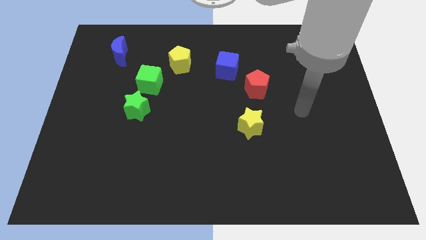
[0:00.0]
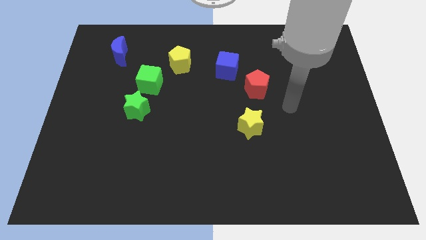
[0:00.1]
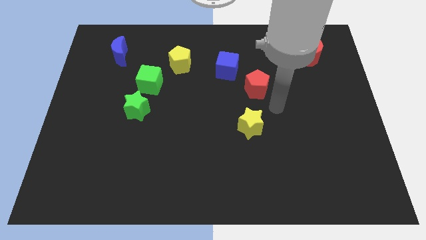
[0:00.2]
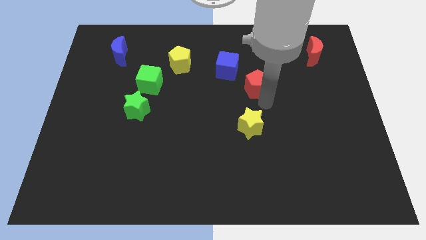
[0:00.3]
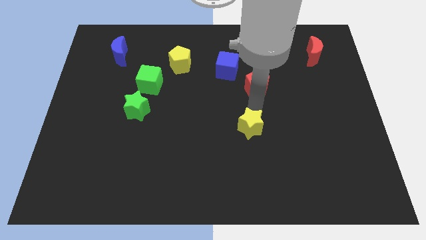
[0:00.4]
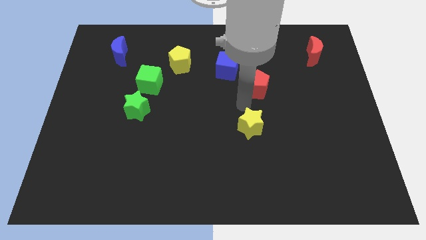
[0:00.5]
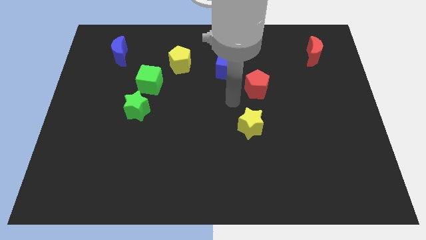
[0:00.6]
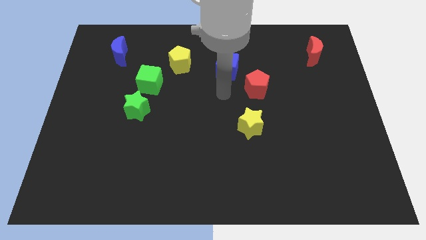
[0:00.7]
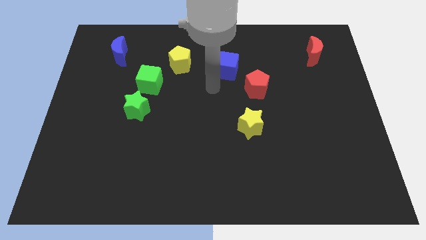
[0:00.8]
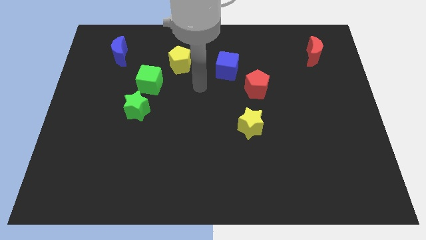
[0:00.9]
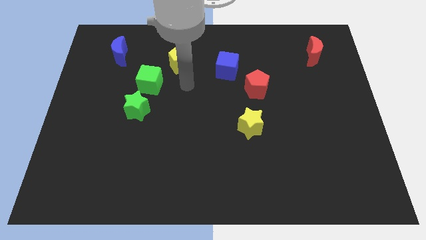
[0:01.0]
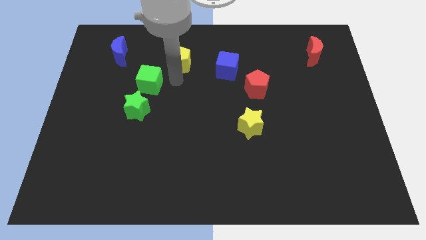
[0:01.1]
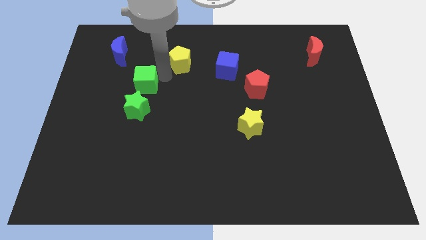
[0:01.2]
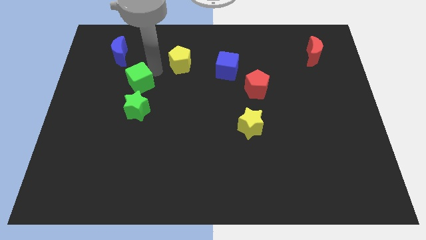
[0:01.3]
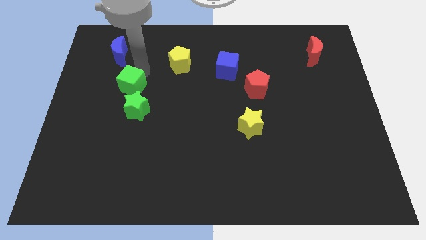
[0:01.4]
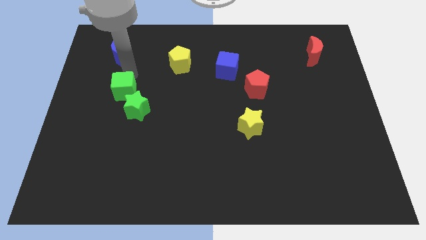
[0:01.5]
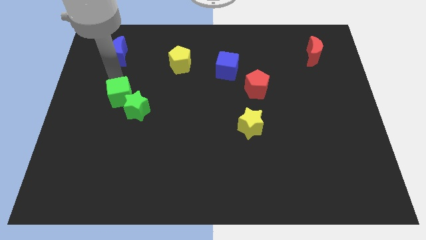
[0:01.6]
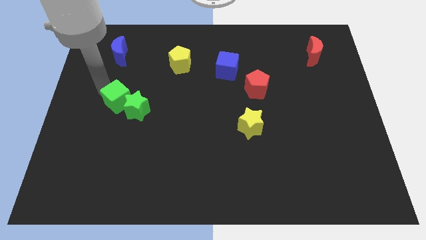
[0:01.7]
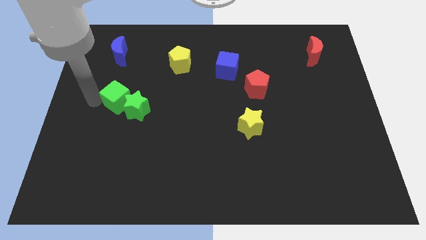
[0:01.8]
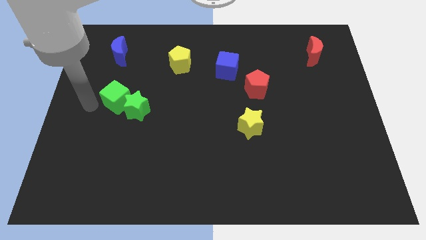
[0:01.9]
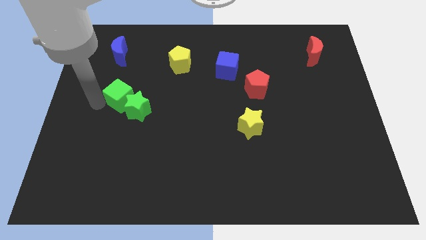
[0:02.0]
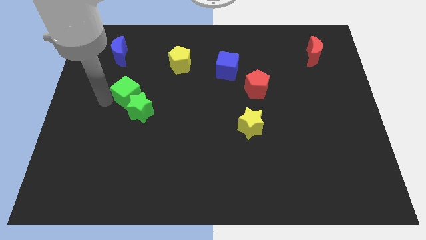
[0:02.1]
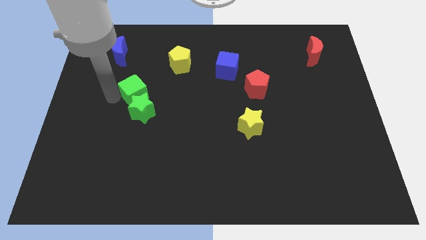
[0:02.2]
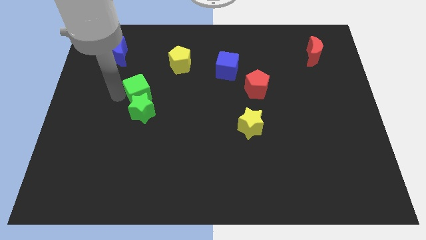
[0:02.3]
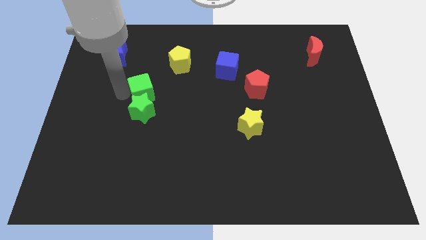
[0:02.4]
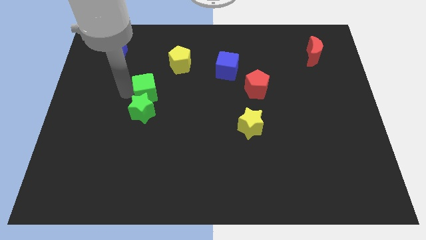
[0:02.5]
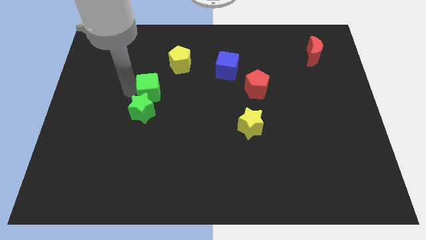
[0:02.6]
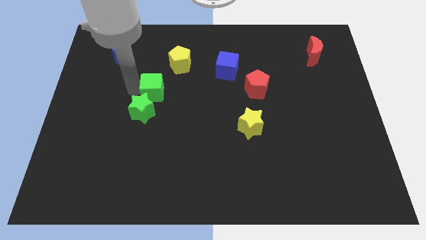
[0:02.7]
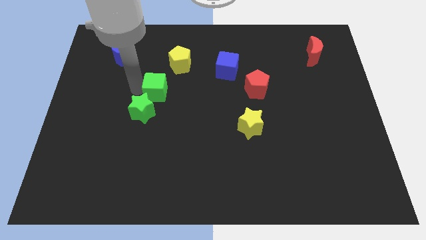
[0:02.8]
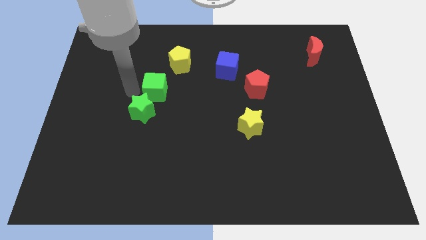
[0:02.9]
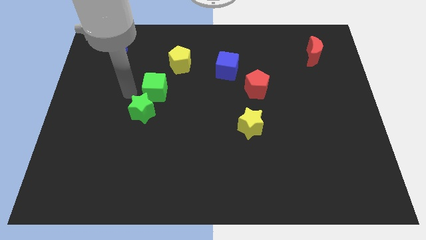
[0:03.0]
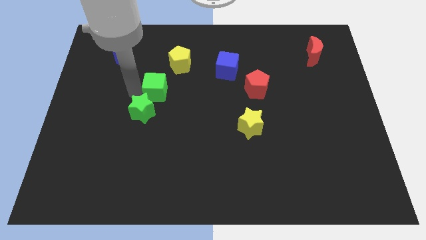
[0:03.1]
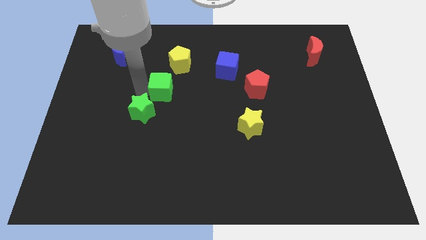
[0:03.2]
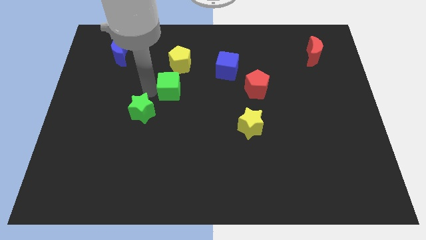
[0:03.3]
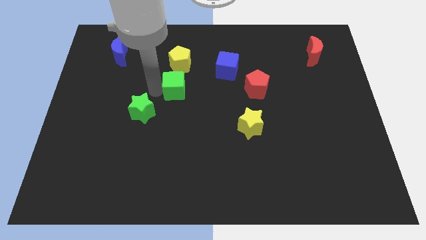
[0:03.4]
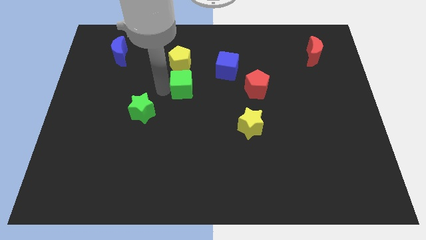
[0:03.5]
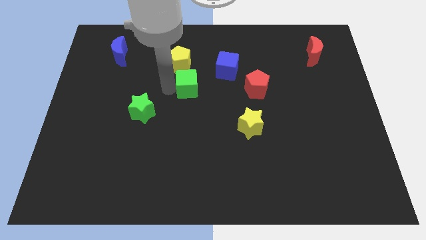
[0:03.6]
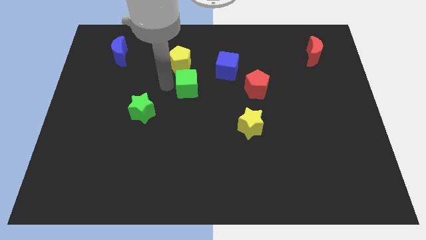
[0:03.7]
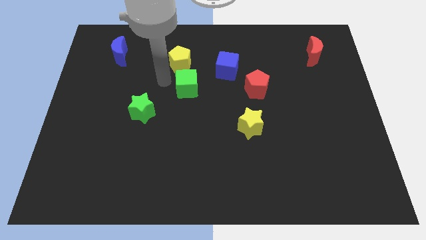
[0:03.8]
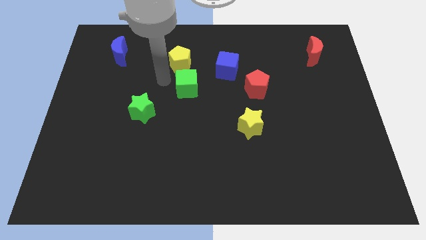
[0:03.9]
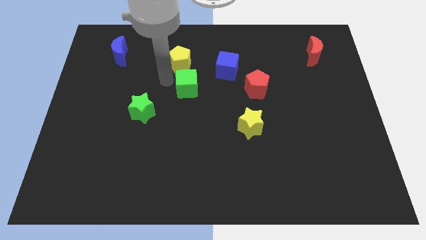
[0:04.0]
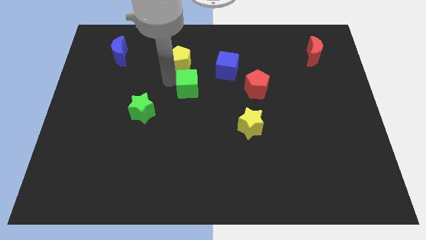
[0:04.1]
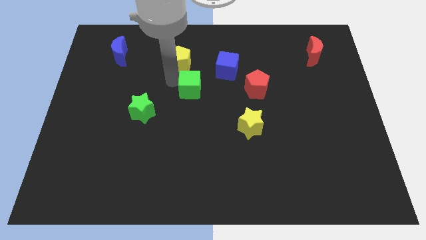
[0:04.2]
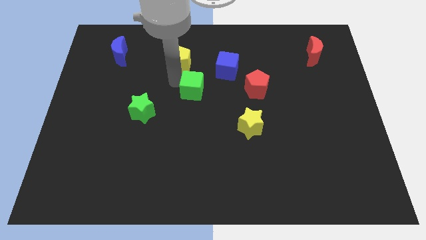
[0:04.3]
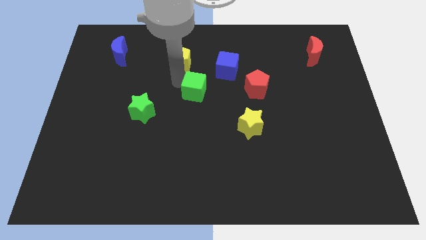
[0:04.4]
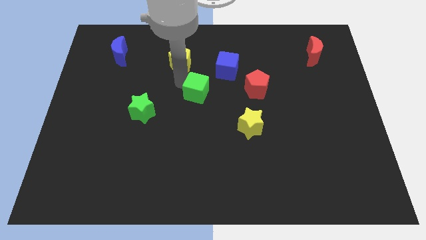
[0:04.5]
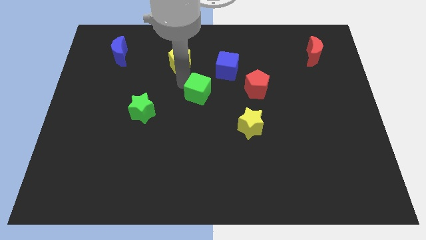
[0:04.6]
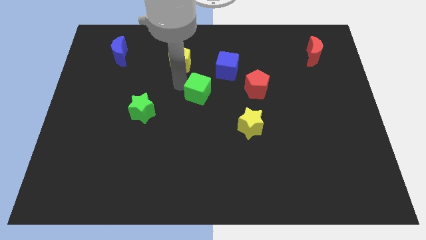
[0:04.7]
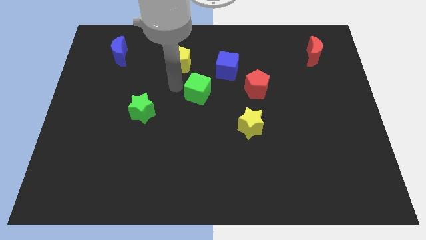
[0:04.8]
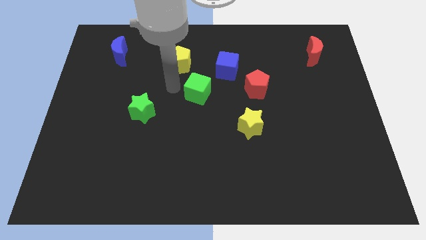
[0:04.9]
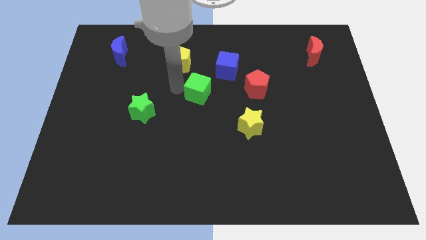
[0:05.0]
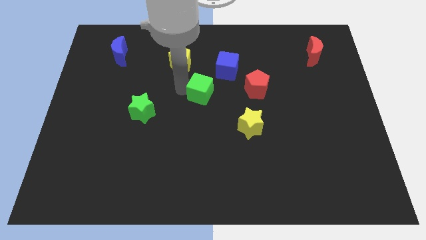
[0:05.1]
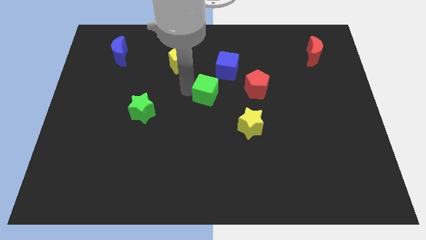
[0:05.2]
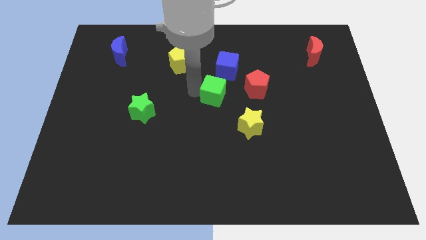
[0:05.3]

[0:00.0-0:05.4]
move the green cube to the bottom side of the blue cube

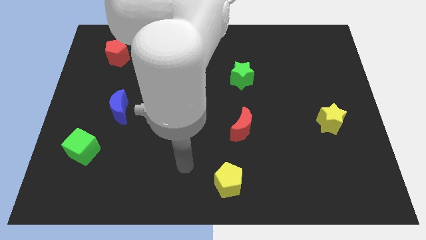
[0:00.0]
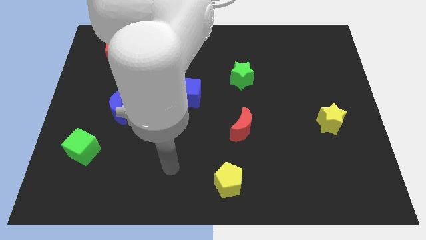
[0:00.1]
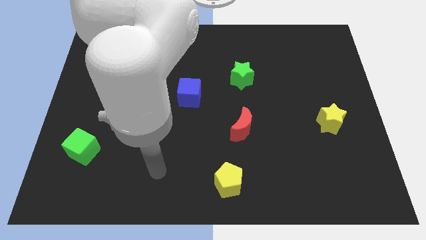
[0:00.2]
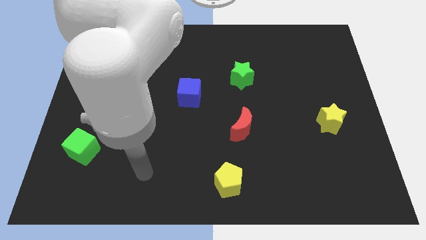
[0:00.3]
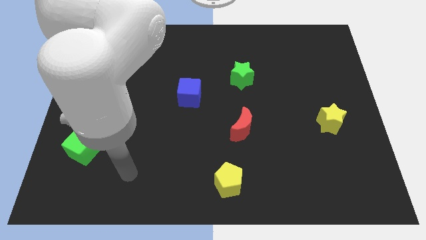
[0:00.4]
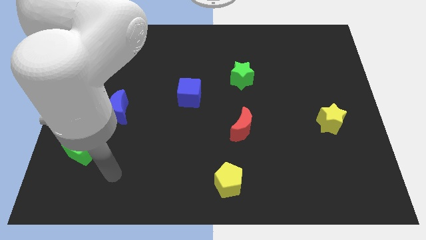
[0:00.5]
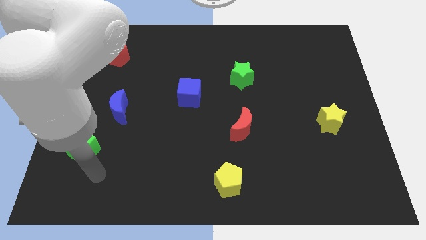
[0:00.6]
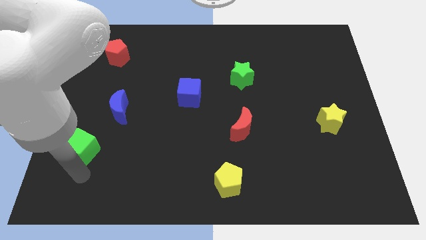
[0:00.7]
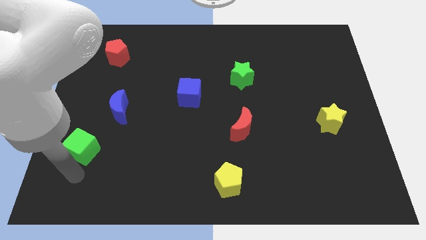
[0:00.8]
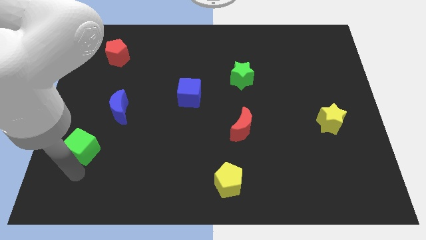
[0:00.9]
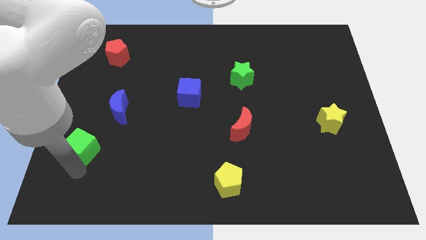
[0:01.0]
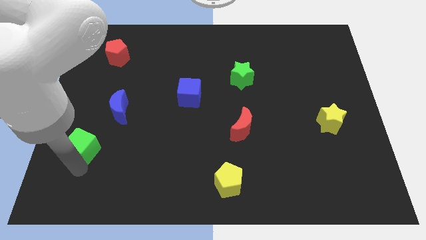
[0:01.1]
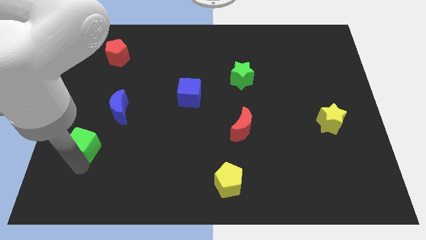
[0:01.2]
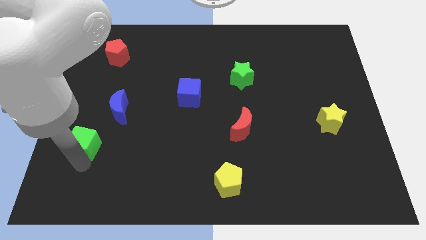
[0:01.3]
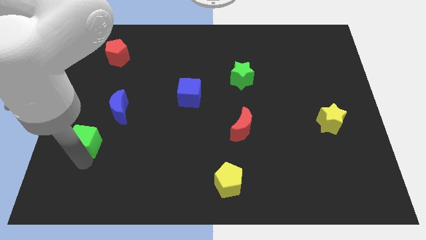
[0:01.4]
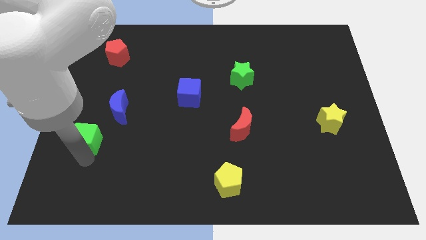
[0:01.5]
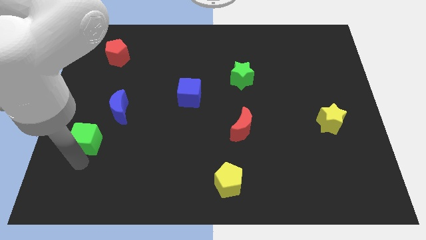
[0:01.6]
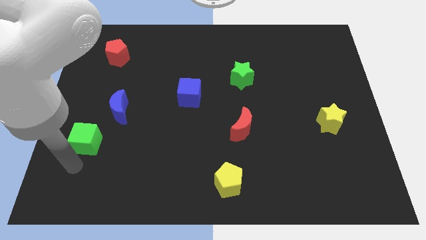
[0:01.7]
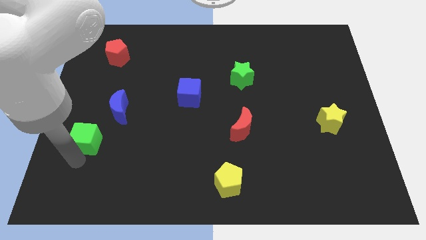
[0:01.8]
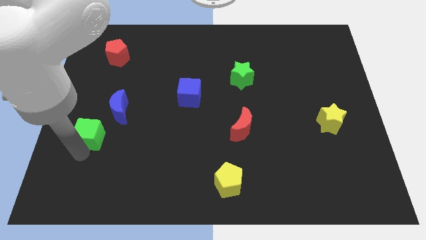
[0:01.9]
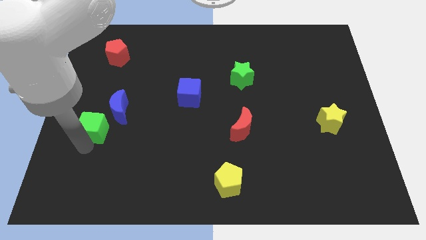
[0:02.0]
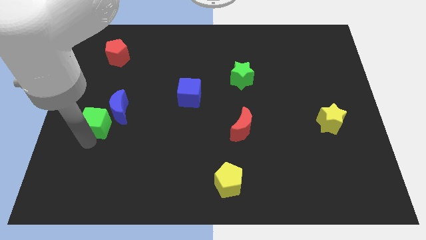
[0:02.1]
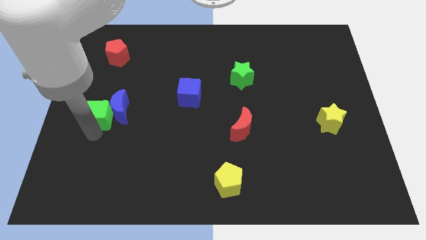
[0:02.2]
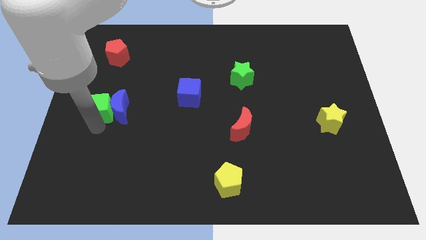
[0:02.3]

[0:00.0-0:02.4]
put the green cube to the top left side of the blue moon

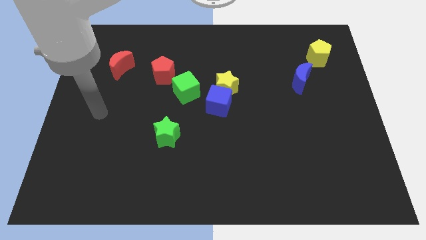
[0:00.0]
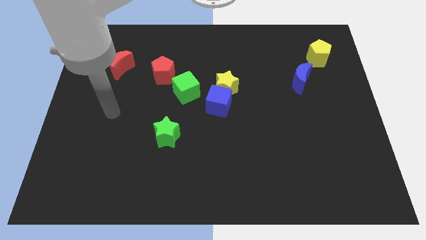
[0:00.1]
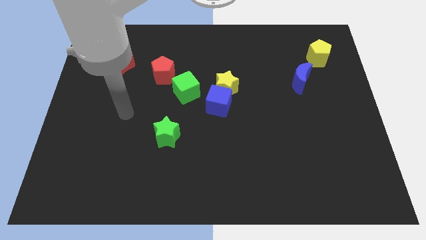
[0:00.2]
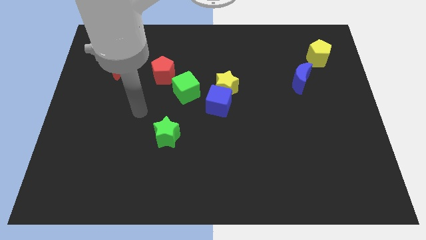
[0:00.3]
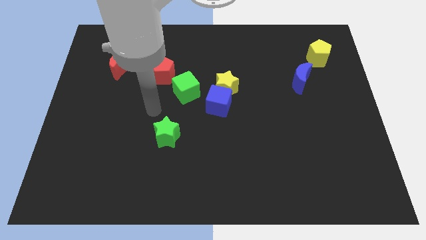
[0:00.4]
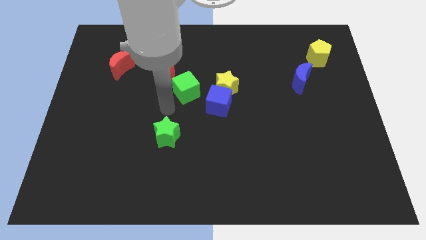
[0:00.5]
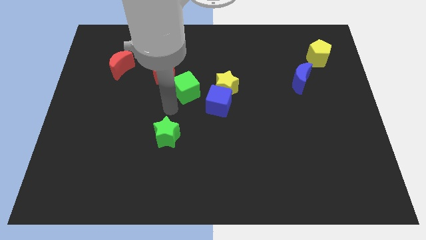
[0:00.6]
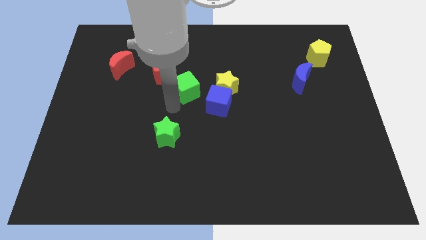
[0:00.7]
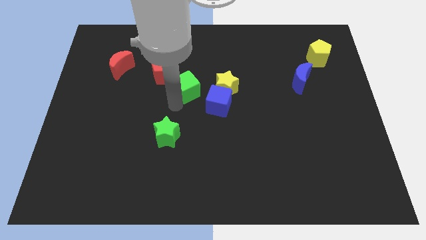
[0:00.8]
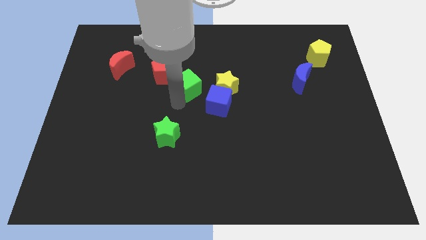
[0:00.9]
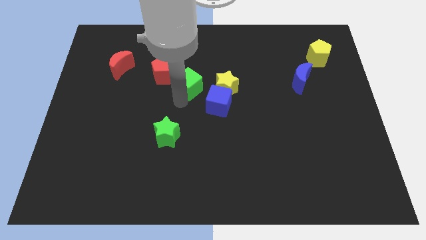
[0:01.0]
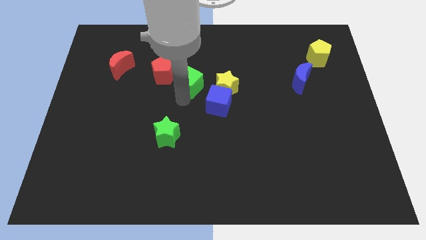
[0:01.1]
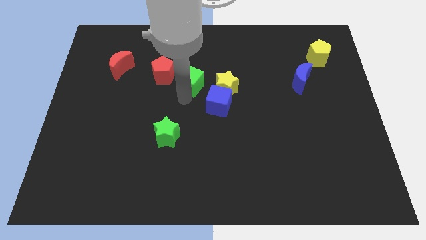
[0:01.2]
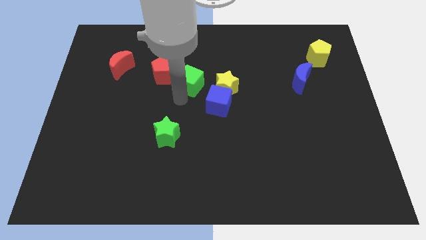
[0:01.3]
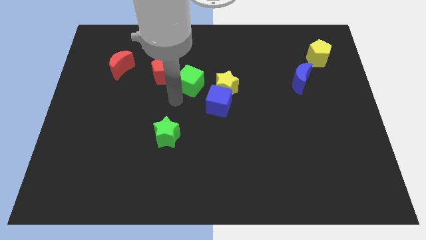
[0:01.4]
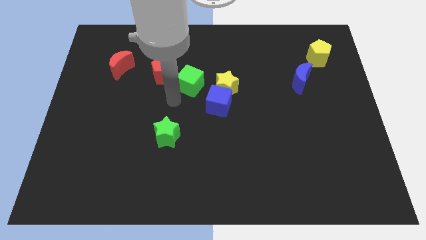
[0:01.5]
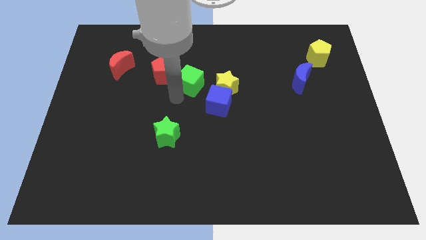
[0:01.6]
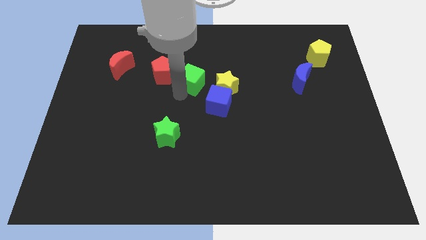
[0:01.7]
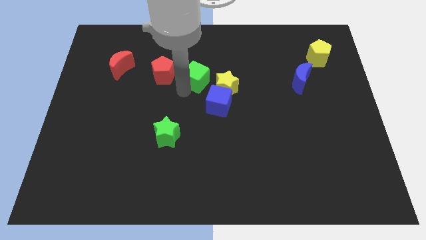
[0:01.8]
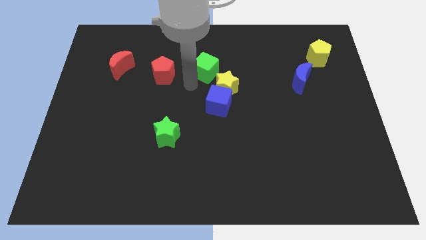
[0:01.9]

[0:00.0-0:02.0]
move the green cube above the yellow star
